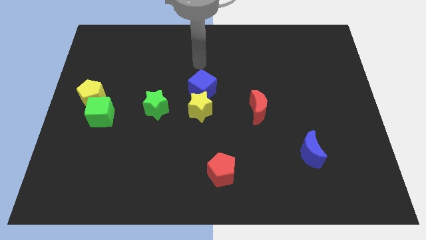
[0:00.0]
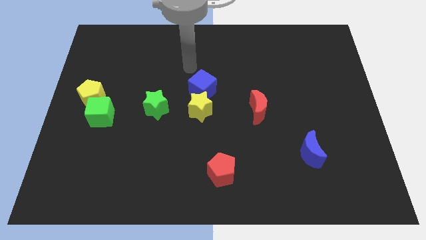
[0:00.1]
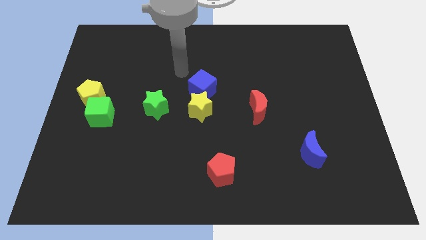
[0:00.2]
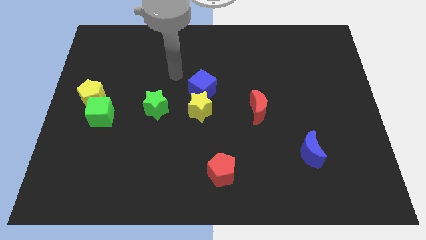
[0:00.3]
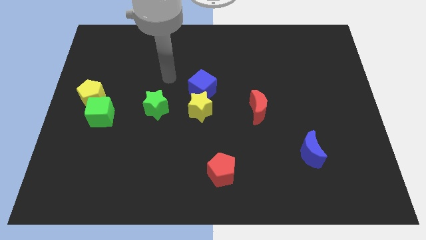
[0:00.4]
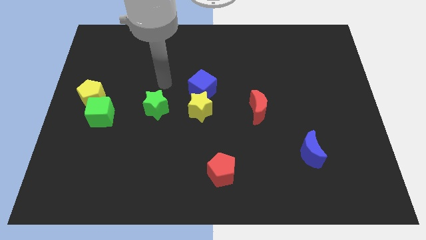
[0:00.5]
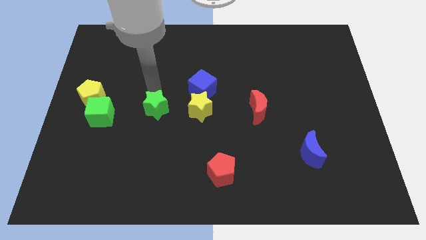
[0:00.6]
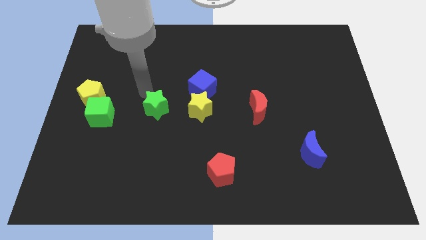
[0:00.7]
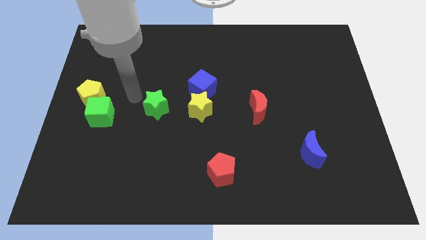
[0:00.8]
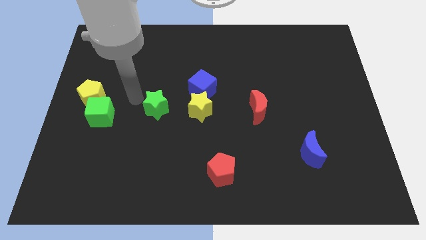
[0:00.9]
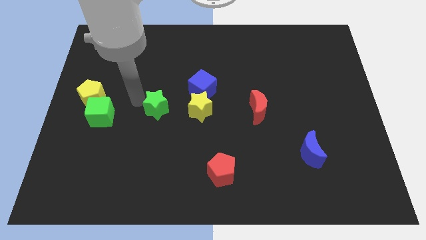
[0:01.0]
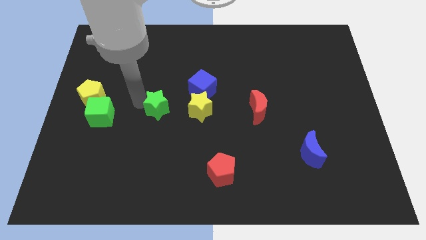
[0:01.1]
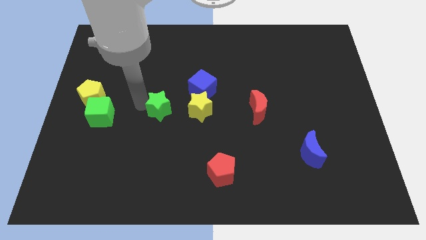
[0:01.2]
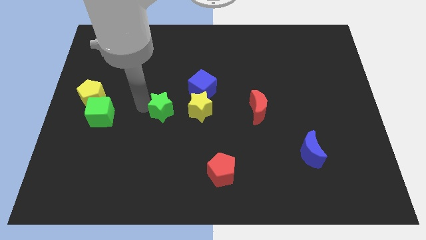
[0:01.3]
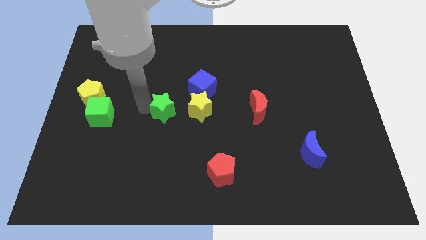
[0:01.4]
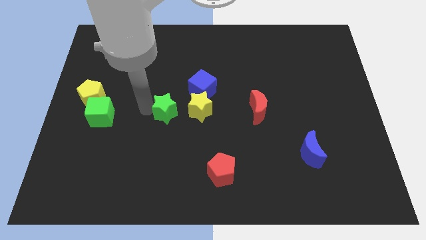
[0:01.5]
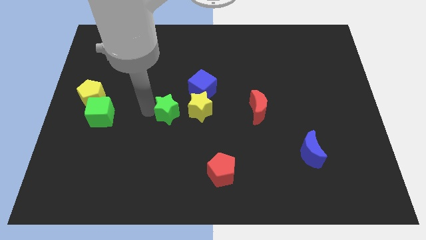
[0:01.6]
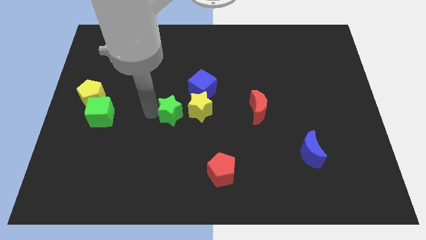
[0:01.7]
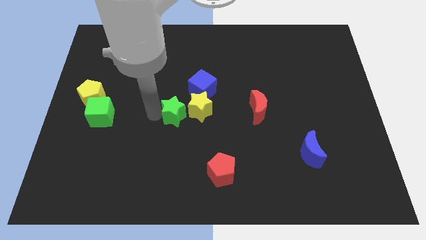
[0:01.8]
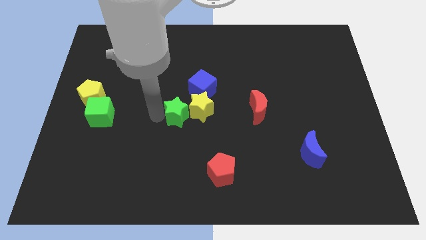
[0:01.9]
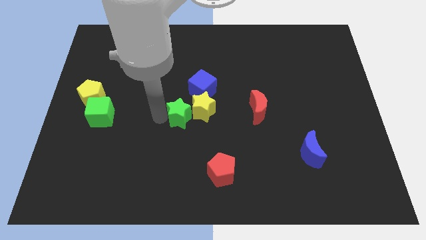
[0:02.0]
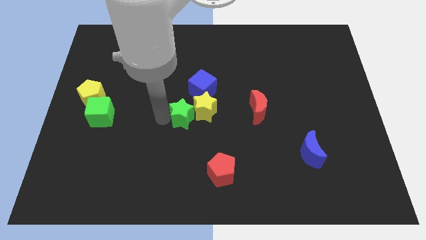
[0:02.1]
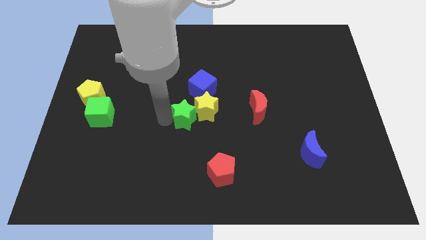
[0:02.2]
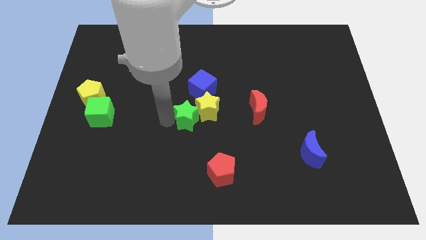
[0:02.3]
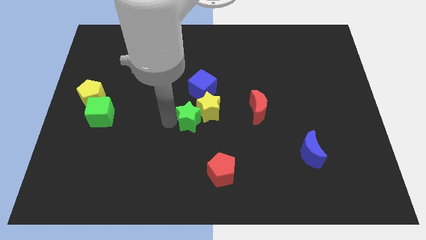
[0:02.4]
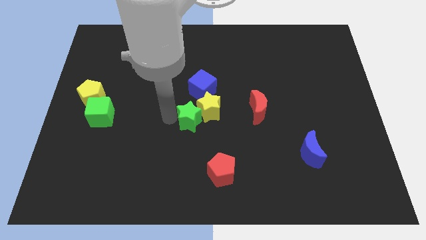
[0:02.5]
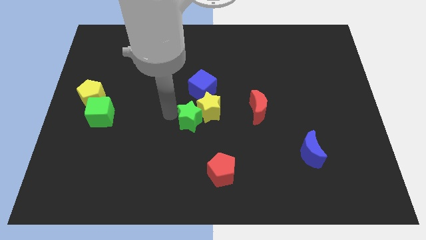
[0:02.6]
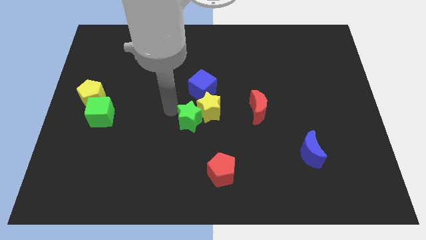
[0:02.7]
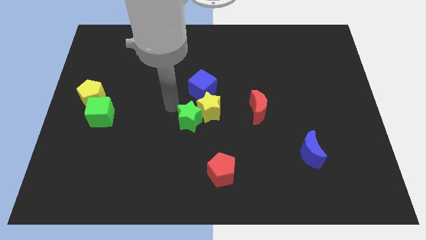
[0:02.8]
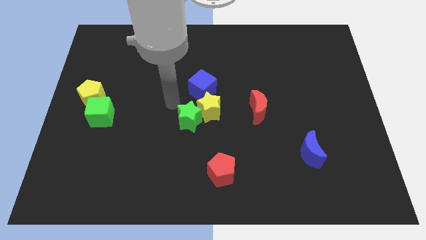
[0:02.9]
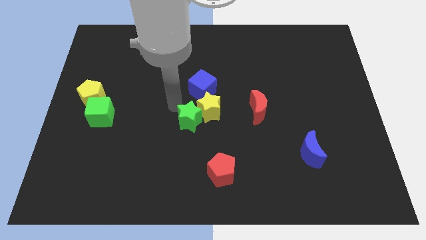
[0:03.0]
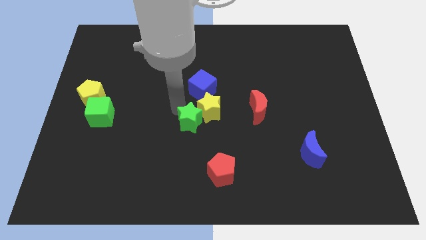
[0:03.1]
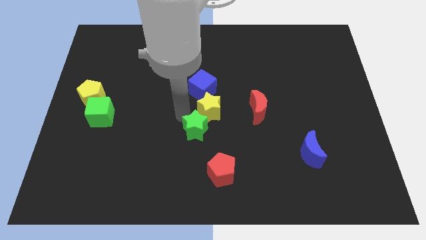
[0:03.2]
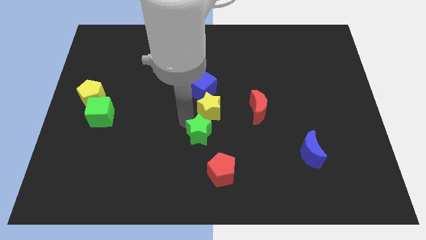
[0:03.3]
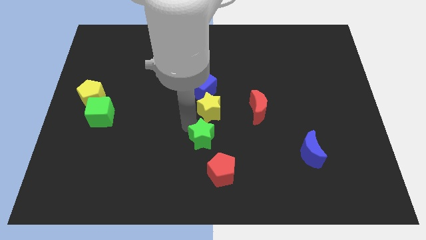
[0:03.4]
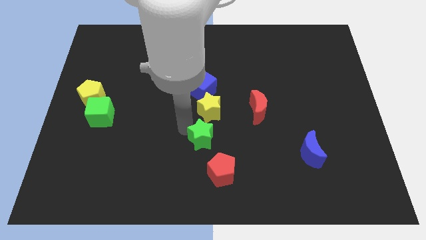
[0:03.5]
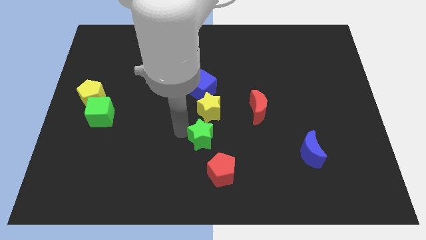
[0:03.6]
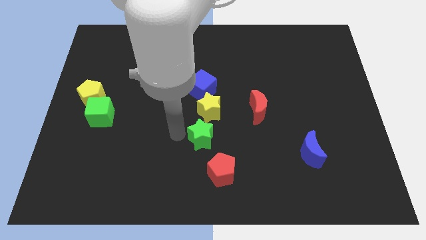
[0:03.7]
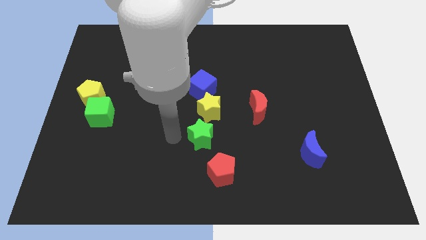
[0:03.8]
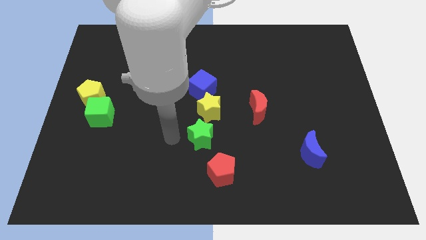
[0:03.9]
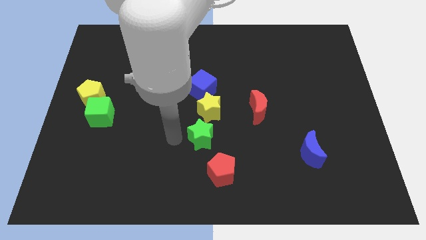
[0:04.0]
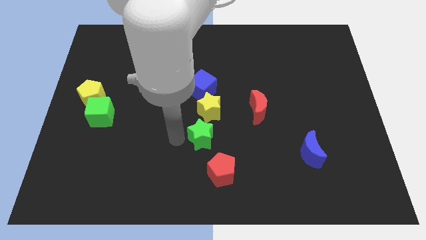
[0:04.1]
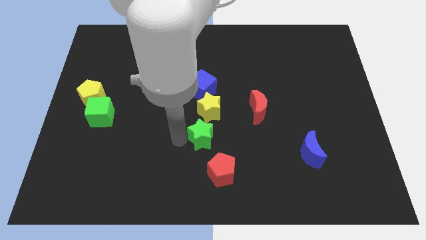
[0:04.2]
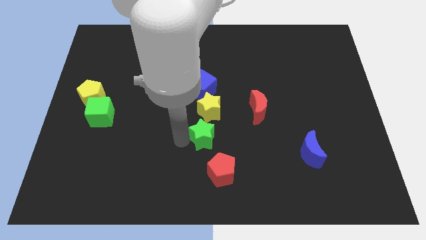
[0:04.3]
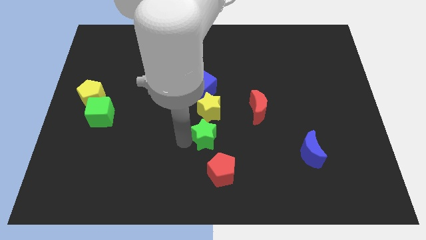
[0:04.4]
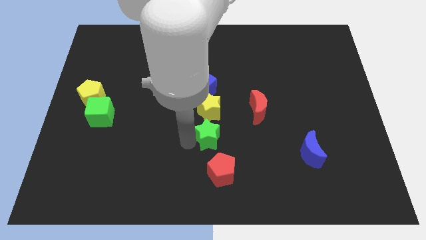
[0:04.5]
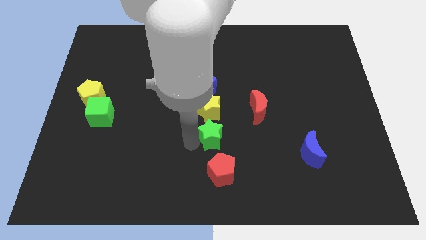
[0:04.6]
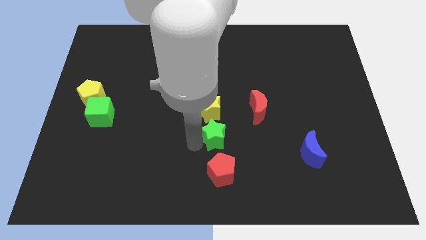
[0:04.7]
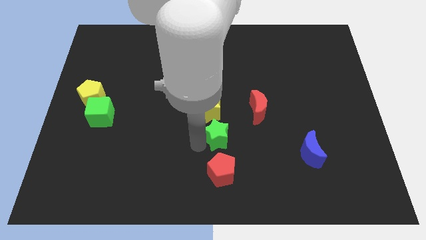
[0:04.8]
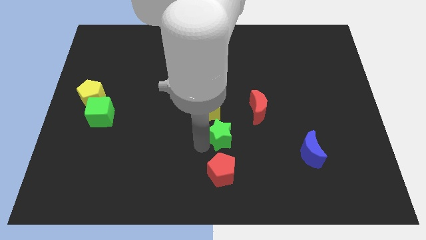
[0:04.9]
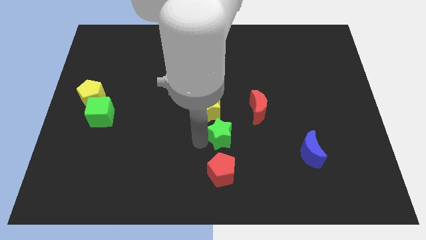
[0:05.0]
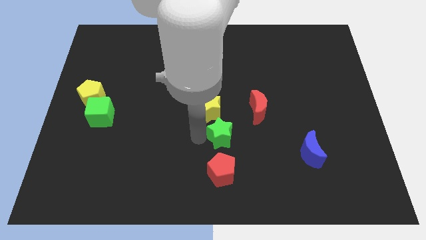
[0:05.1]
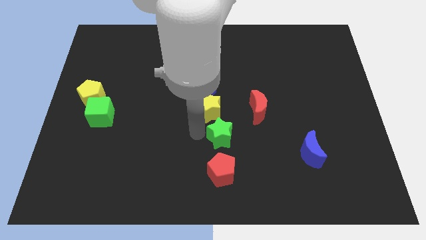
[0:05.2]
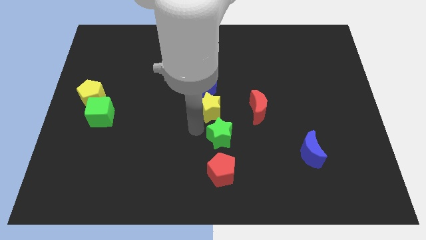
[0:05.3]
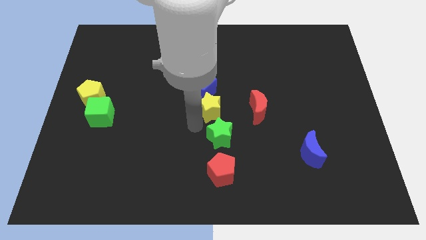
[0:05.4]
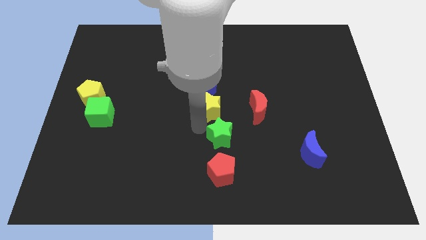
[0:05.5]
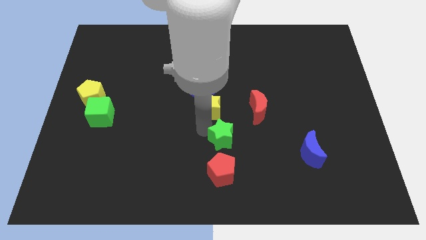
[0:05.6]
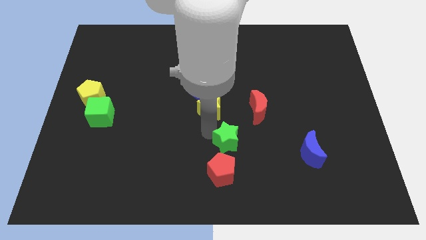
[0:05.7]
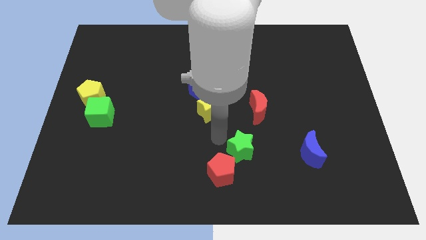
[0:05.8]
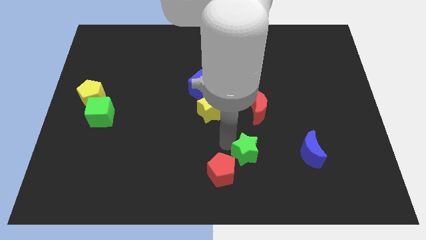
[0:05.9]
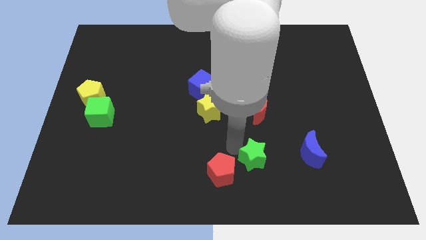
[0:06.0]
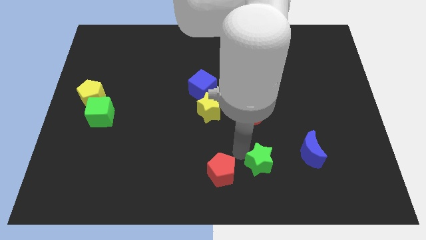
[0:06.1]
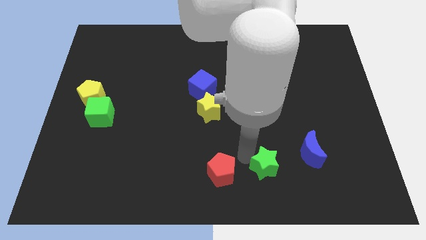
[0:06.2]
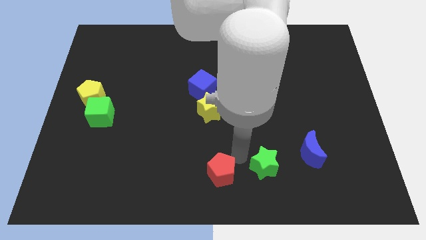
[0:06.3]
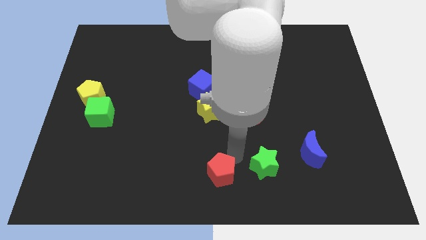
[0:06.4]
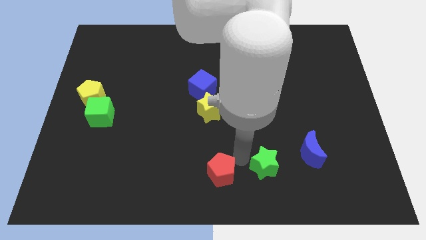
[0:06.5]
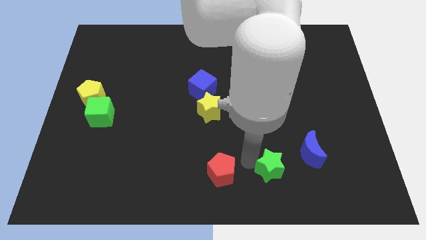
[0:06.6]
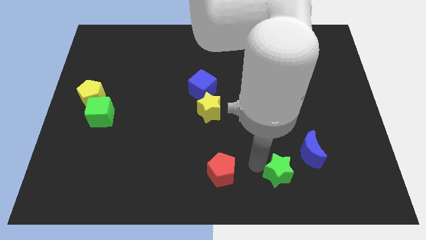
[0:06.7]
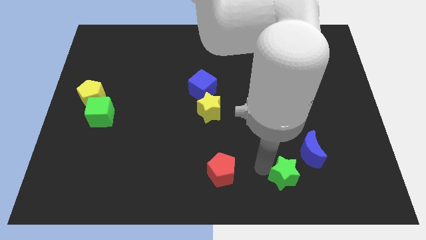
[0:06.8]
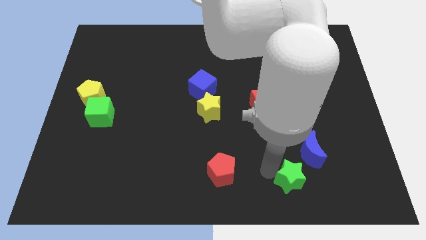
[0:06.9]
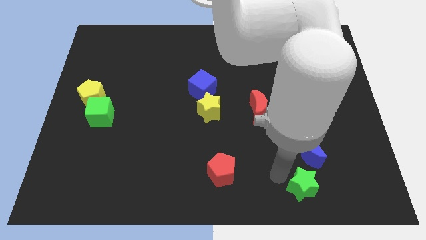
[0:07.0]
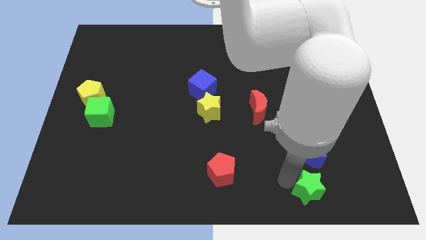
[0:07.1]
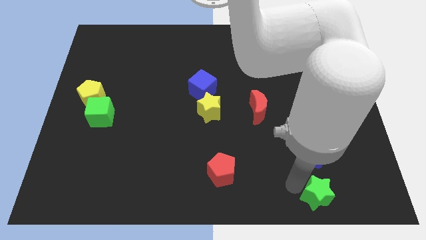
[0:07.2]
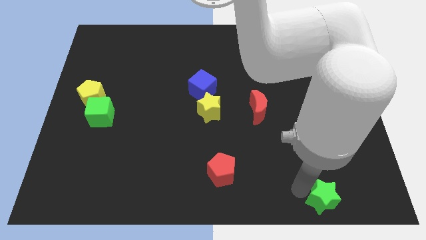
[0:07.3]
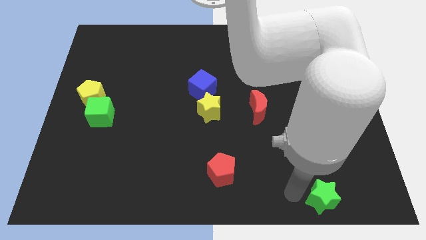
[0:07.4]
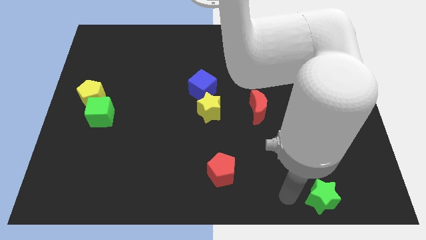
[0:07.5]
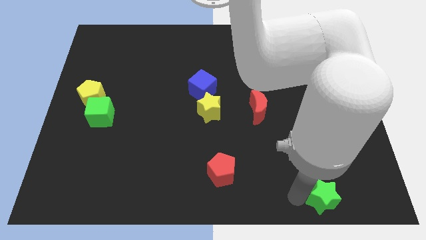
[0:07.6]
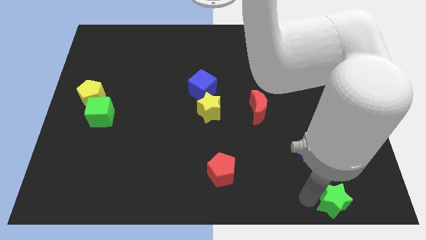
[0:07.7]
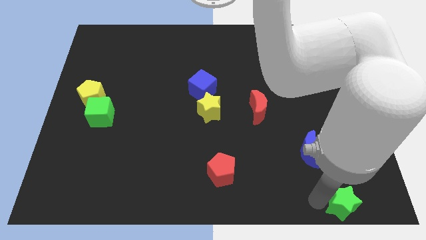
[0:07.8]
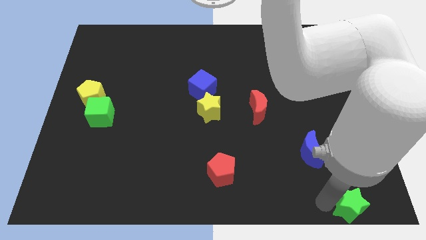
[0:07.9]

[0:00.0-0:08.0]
put the green star to the bottom right of the board
